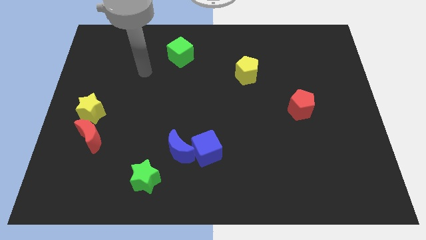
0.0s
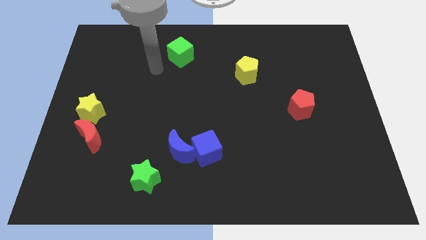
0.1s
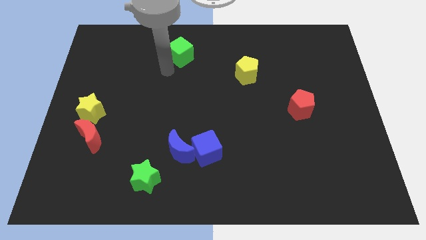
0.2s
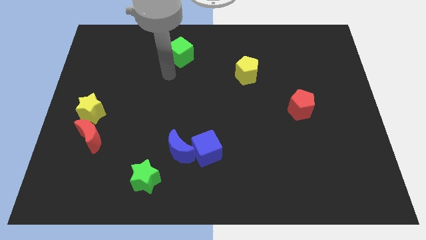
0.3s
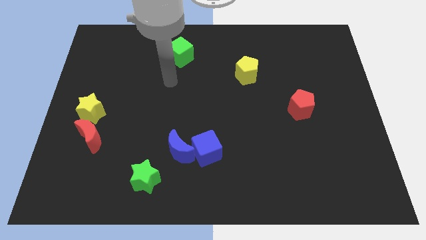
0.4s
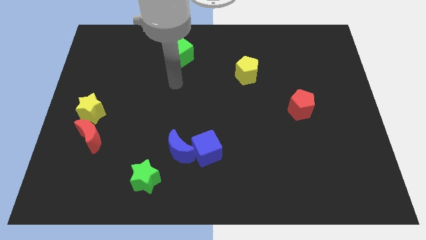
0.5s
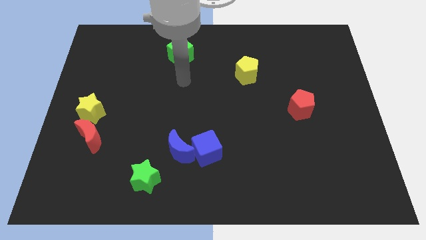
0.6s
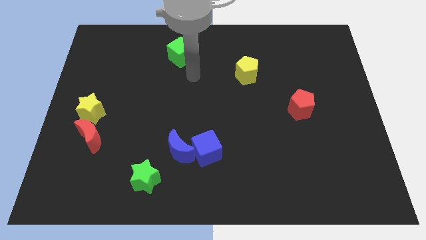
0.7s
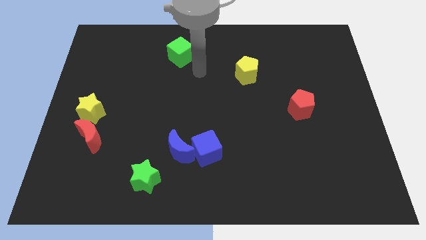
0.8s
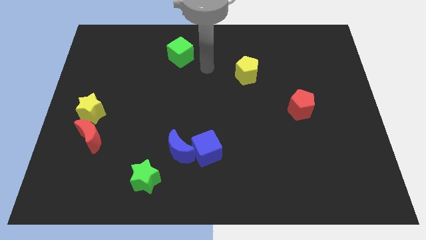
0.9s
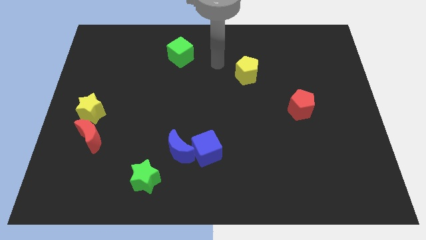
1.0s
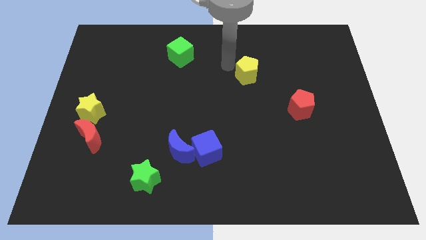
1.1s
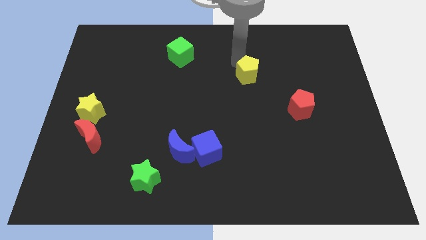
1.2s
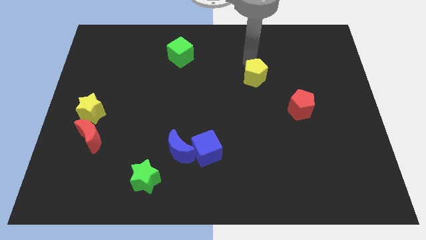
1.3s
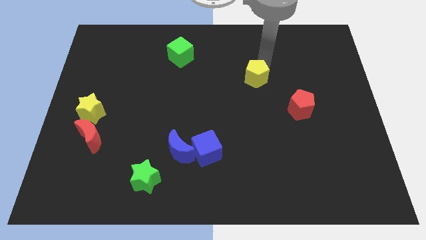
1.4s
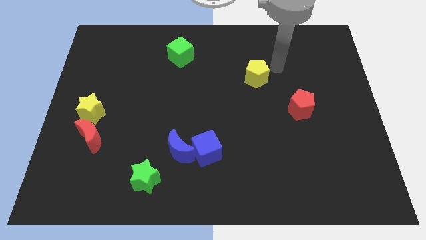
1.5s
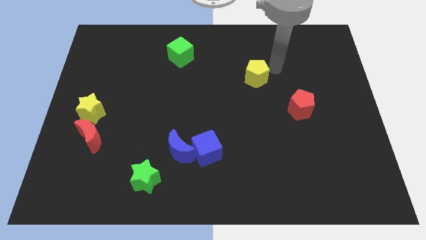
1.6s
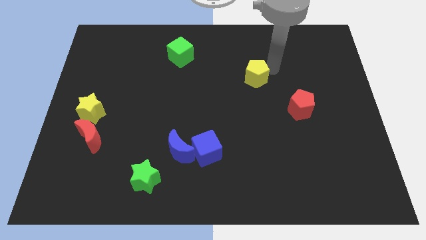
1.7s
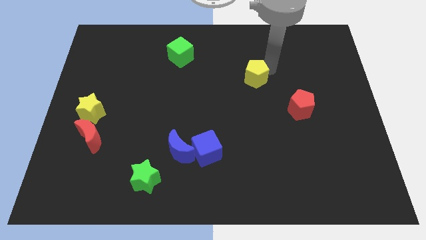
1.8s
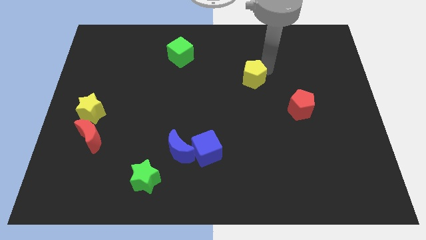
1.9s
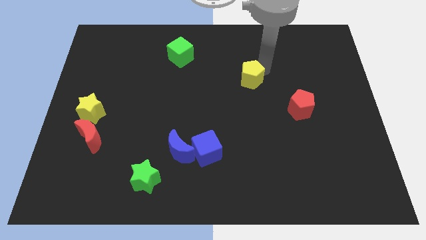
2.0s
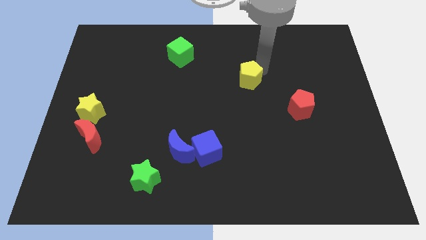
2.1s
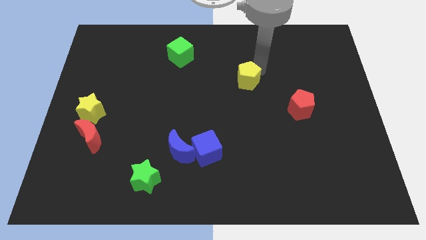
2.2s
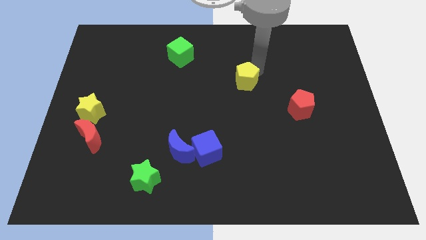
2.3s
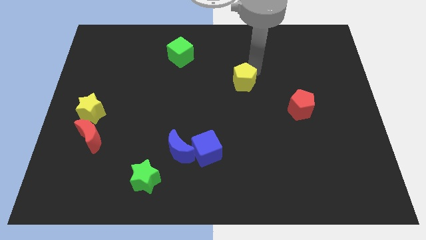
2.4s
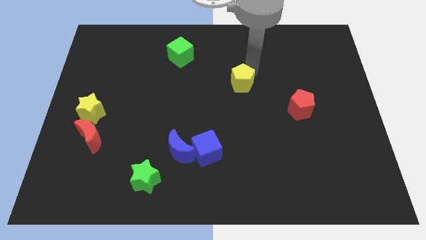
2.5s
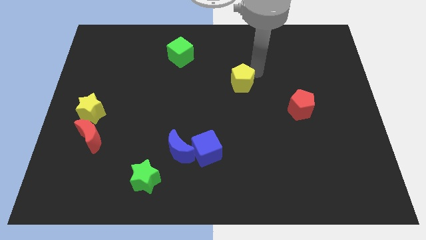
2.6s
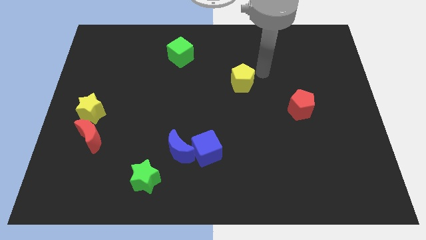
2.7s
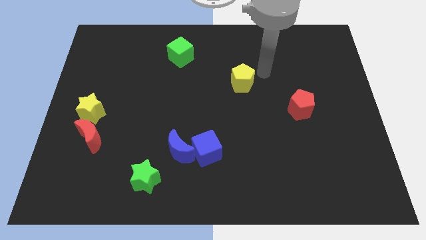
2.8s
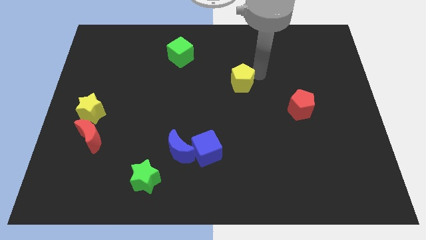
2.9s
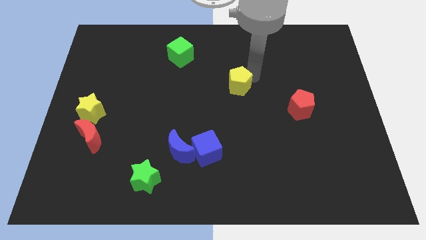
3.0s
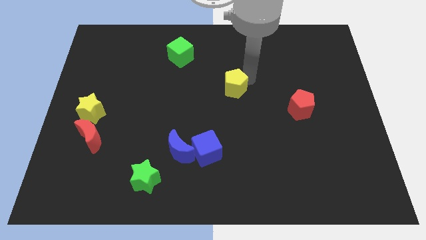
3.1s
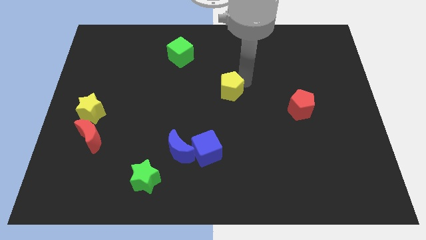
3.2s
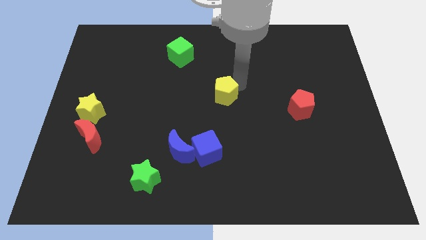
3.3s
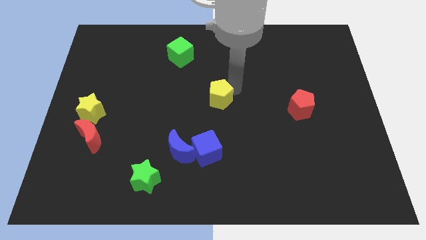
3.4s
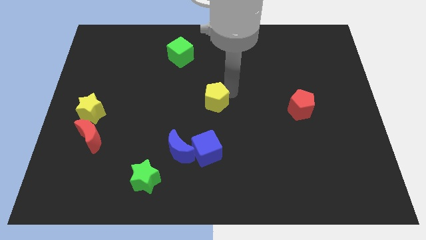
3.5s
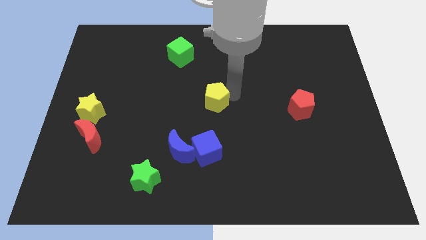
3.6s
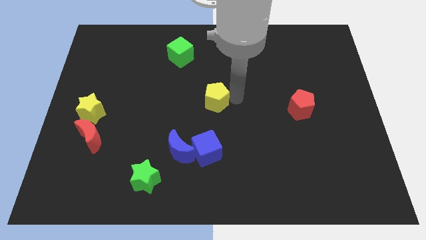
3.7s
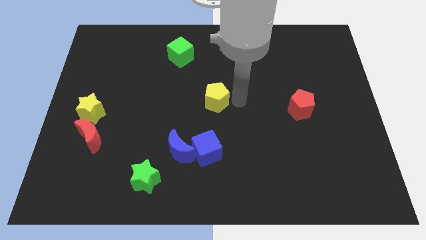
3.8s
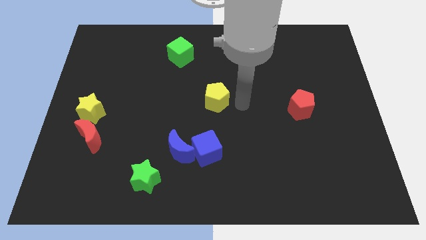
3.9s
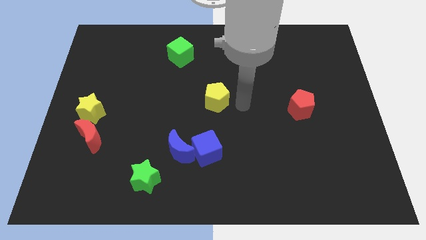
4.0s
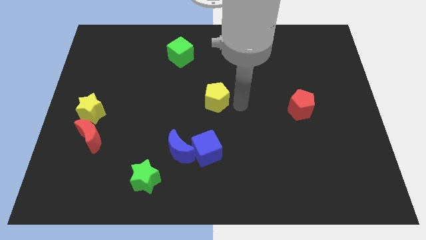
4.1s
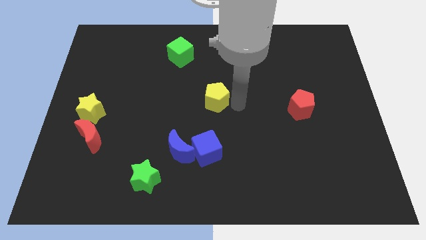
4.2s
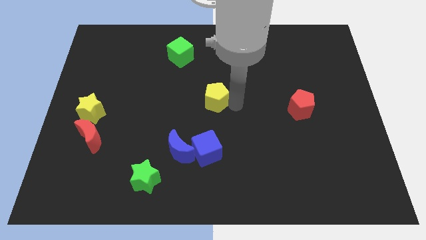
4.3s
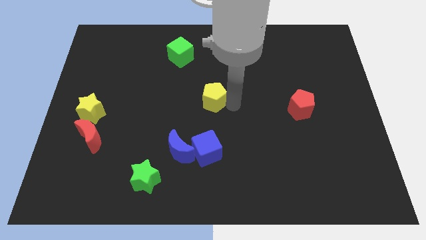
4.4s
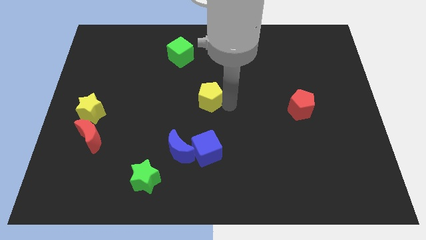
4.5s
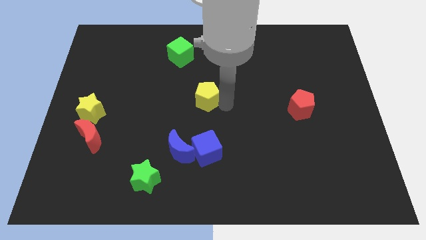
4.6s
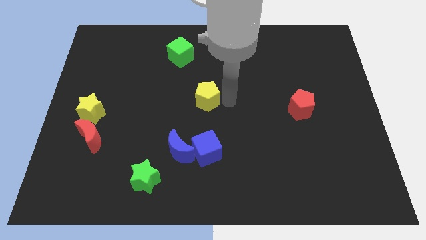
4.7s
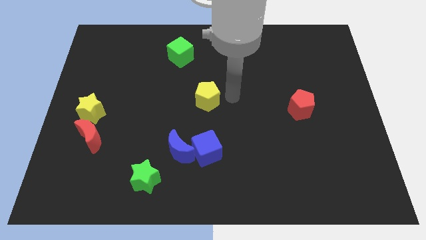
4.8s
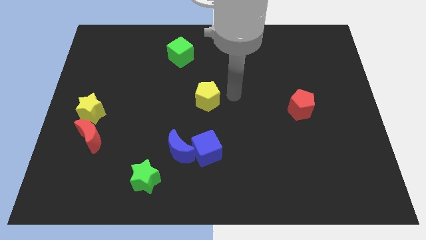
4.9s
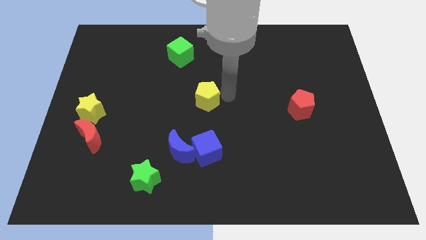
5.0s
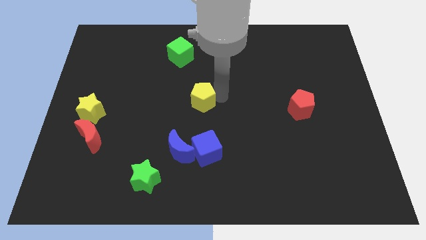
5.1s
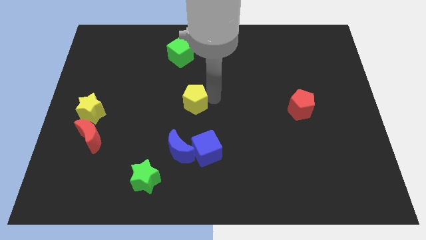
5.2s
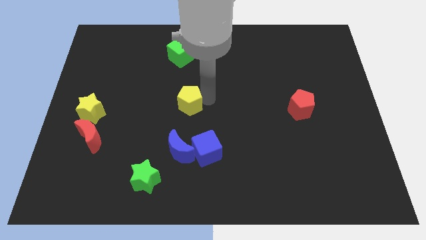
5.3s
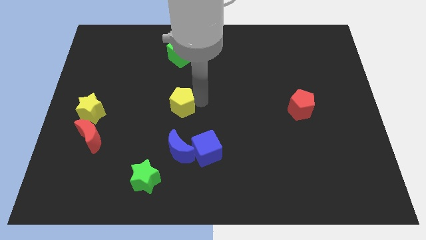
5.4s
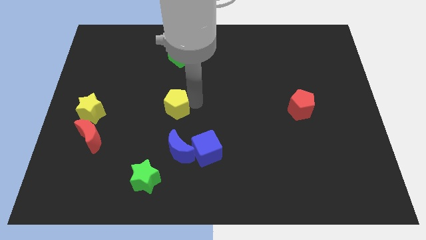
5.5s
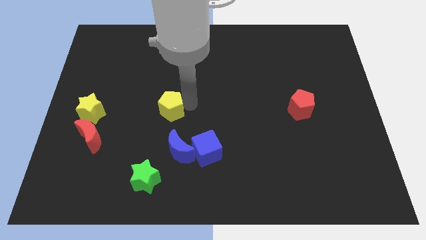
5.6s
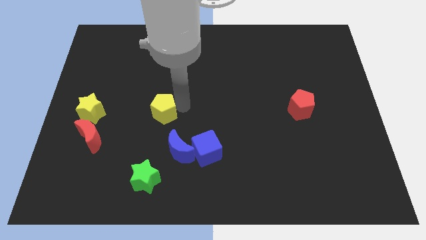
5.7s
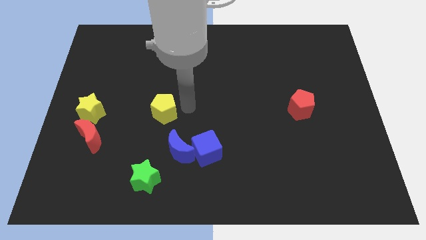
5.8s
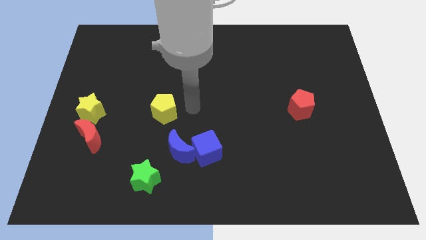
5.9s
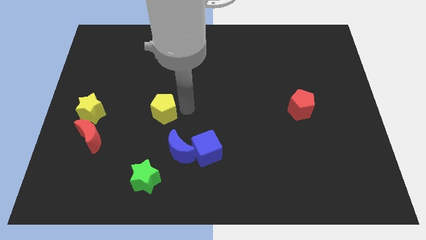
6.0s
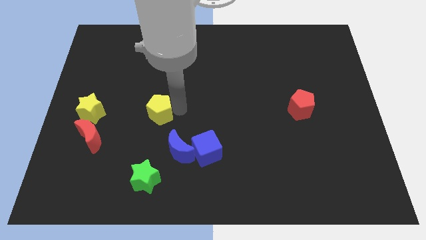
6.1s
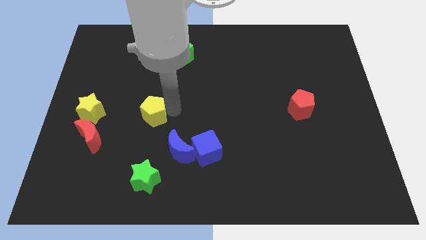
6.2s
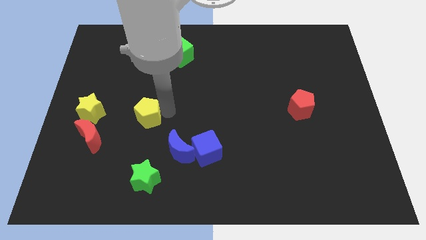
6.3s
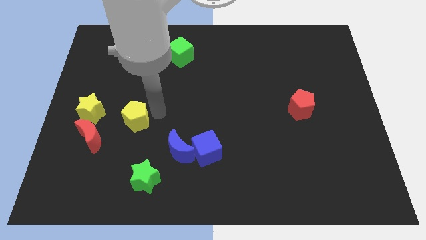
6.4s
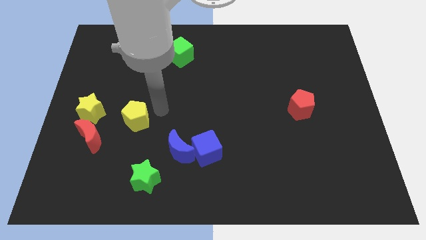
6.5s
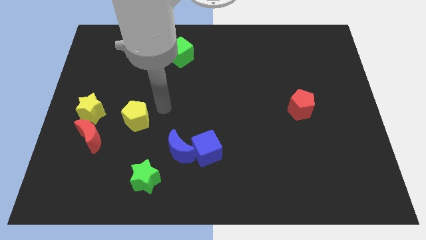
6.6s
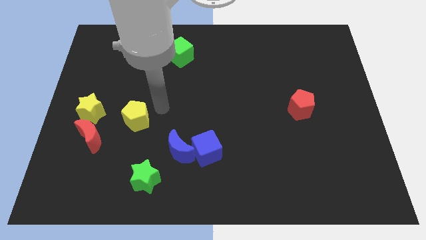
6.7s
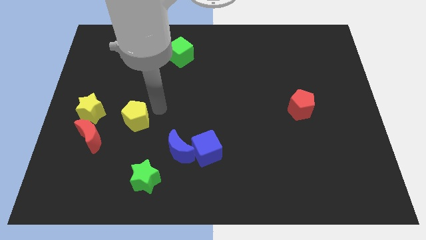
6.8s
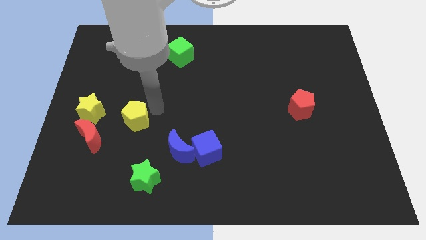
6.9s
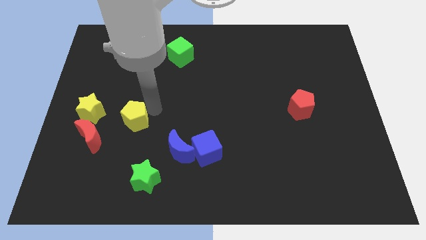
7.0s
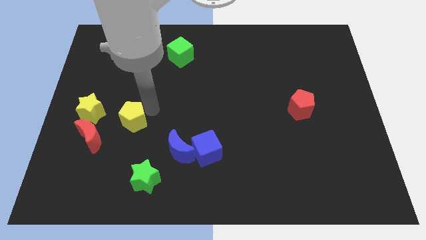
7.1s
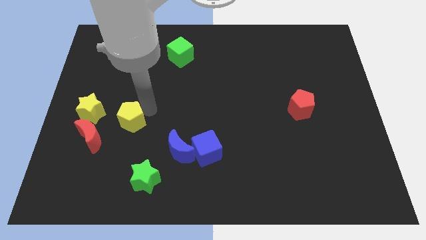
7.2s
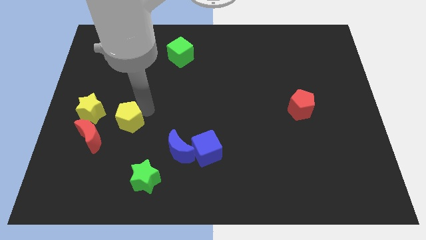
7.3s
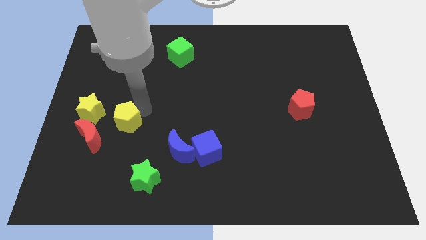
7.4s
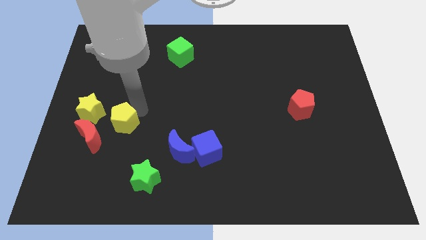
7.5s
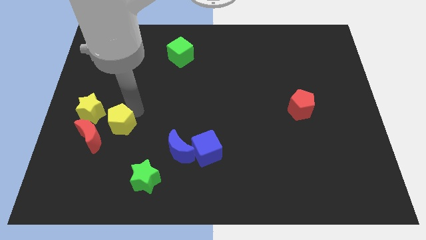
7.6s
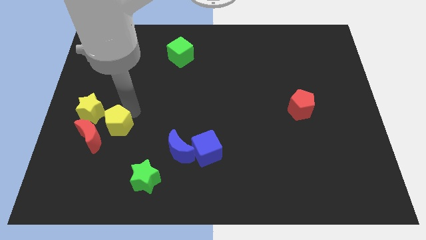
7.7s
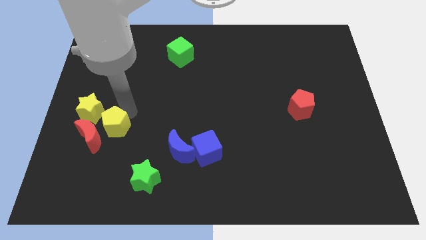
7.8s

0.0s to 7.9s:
move the yellow pentagon towards the red moon
